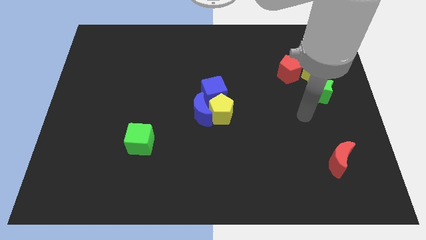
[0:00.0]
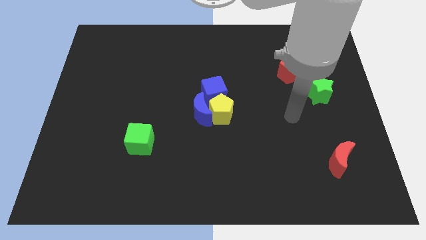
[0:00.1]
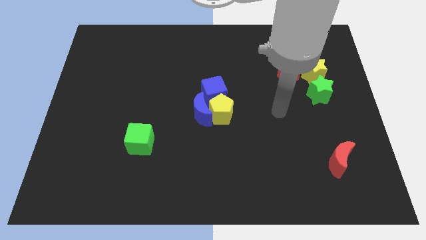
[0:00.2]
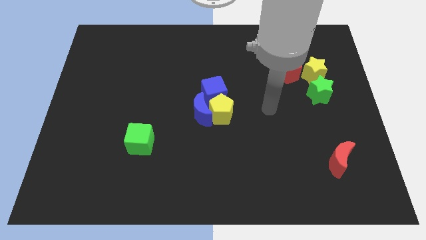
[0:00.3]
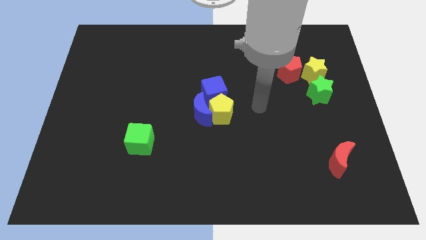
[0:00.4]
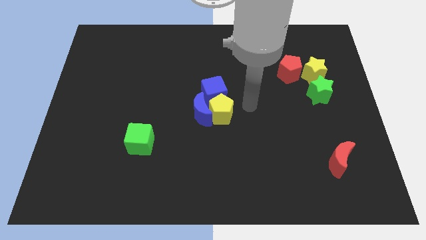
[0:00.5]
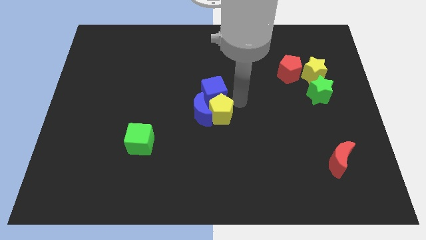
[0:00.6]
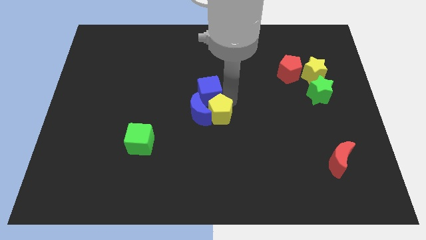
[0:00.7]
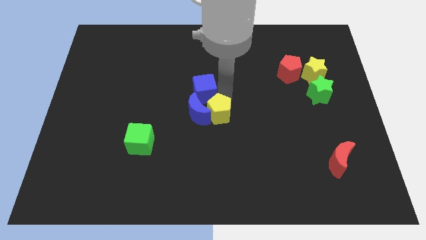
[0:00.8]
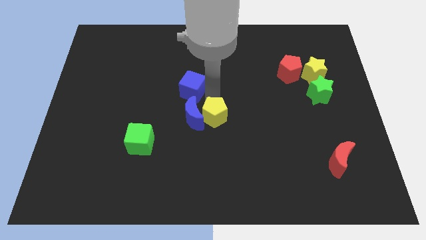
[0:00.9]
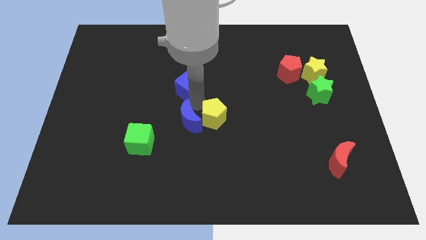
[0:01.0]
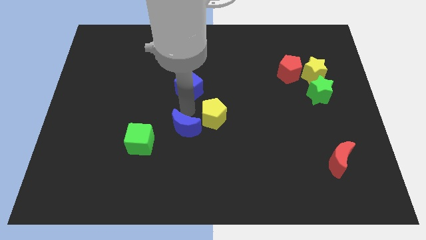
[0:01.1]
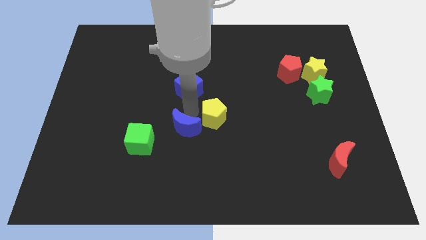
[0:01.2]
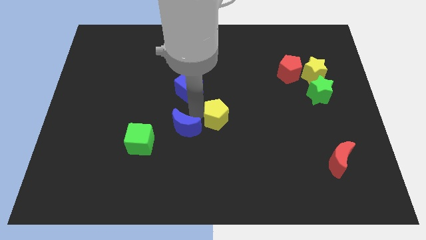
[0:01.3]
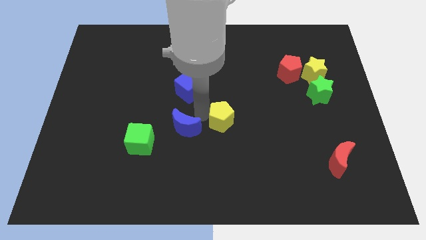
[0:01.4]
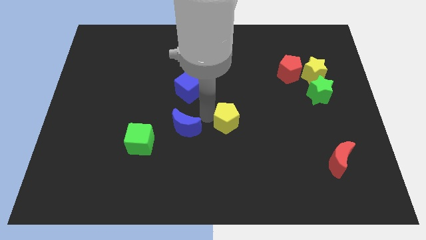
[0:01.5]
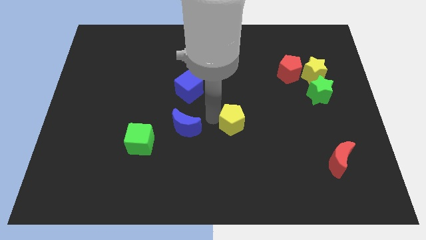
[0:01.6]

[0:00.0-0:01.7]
move the yellow pentagon away from the blue moon and blue cube

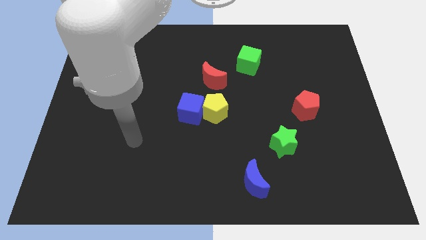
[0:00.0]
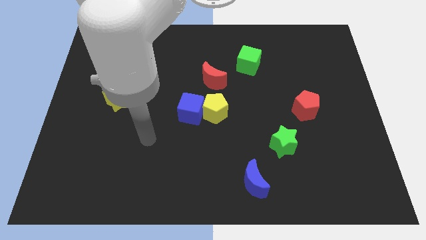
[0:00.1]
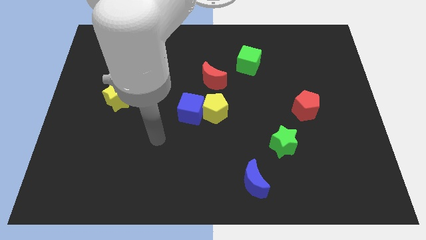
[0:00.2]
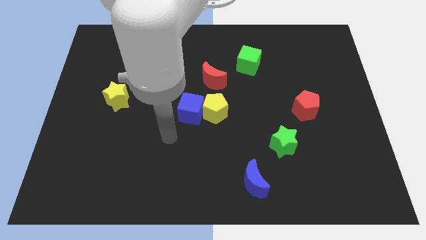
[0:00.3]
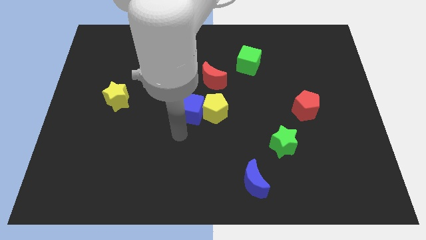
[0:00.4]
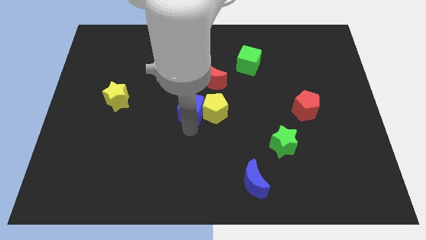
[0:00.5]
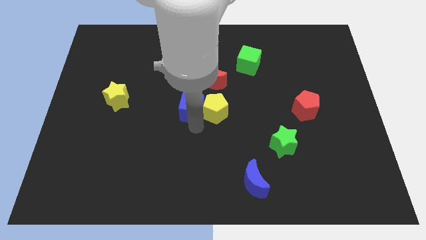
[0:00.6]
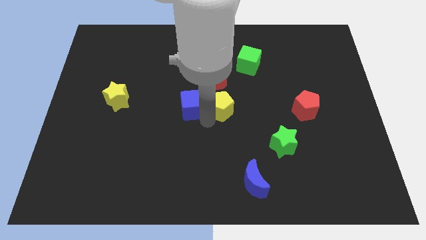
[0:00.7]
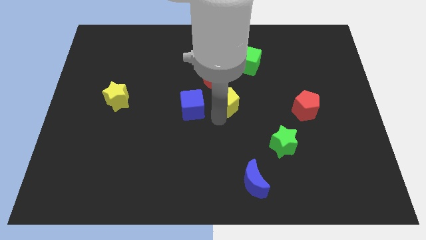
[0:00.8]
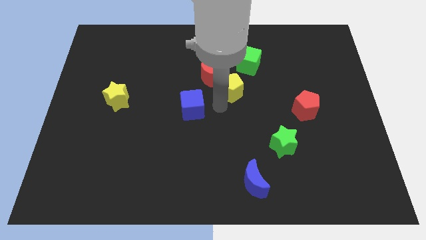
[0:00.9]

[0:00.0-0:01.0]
pull the blue cube apart from the yellow pentagon

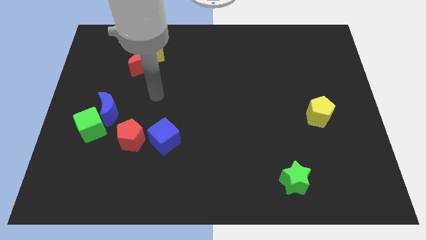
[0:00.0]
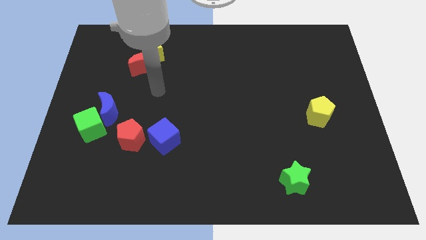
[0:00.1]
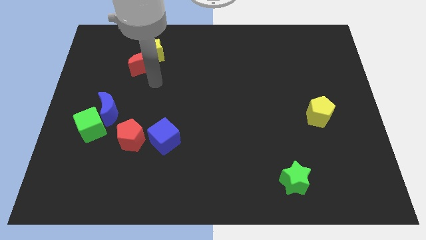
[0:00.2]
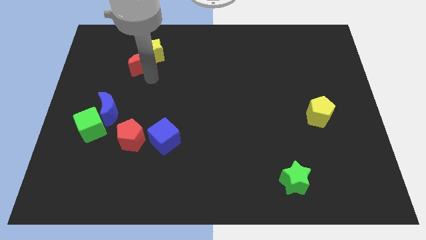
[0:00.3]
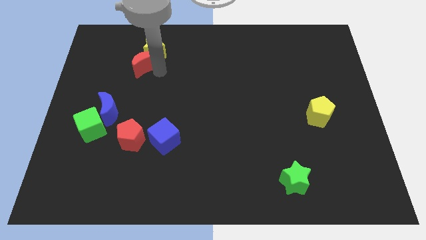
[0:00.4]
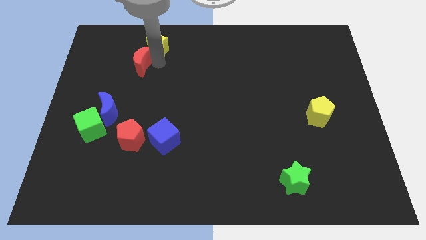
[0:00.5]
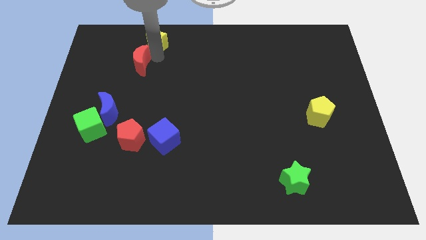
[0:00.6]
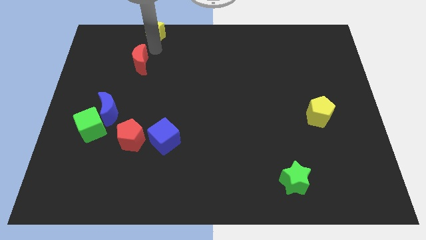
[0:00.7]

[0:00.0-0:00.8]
move the red moon away from the yellow star

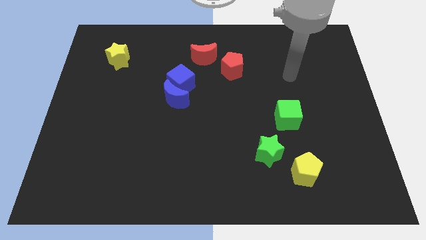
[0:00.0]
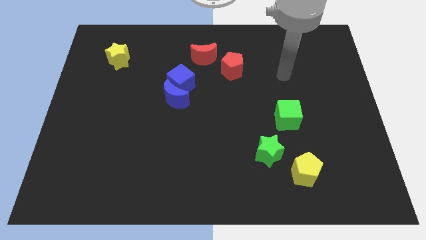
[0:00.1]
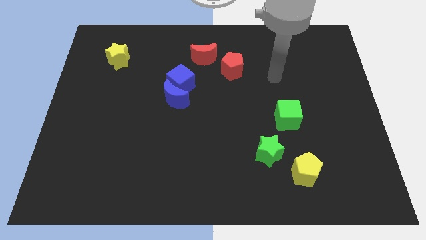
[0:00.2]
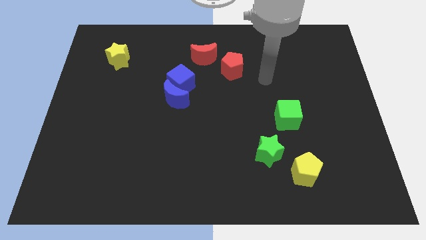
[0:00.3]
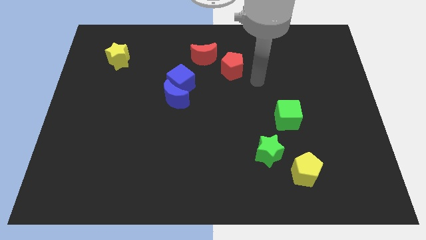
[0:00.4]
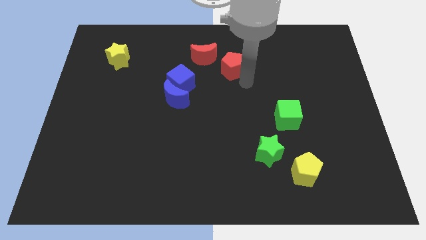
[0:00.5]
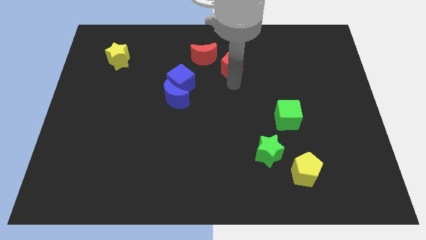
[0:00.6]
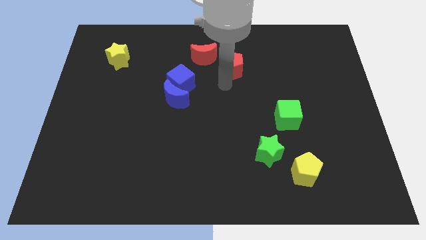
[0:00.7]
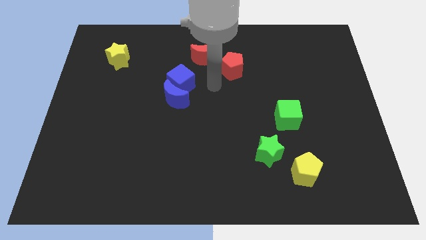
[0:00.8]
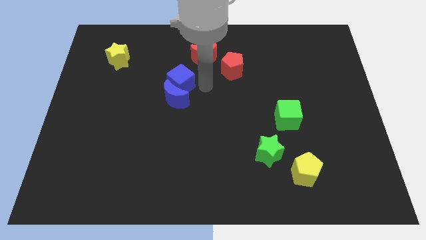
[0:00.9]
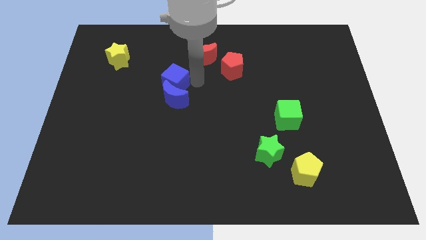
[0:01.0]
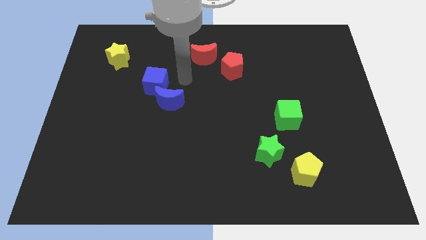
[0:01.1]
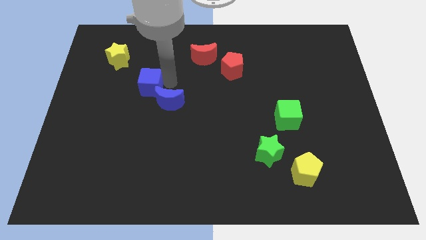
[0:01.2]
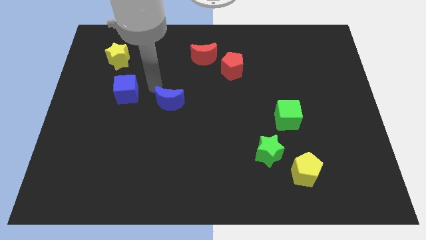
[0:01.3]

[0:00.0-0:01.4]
separate the blue moon from the blue cube

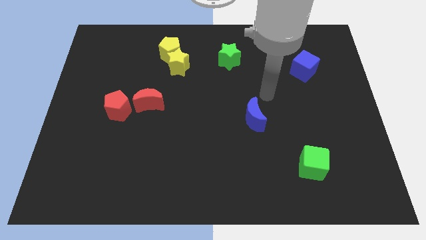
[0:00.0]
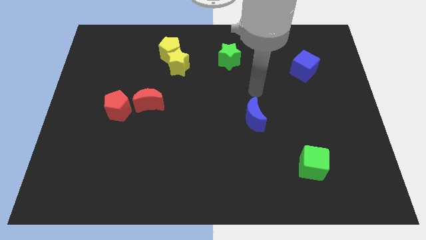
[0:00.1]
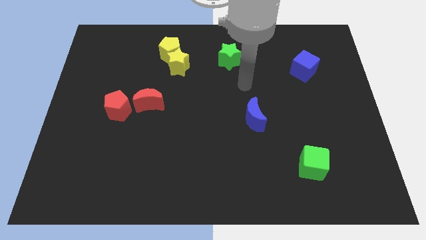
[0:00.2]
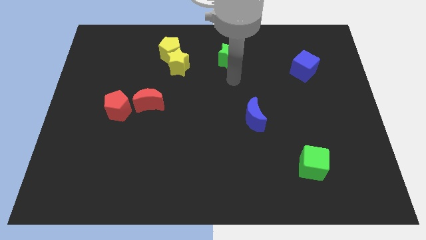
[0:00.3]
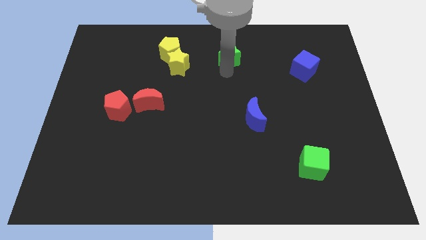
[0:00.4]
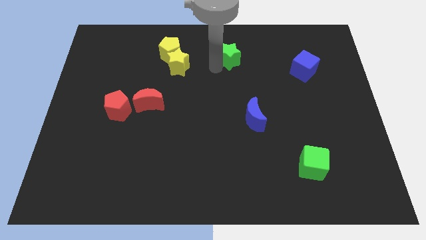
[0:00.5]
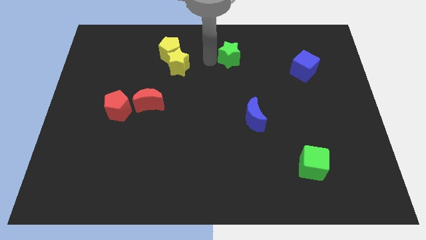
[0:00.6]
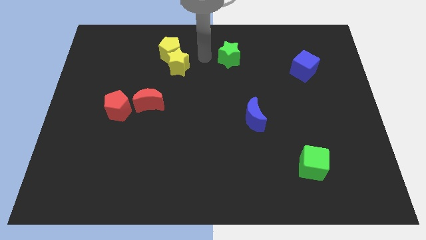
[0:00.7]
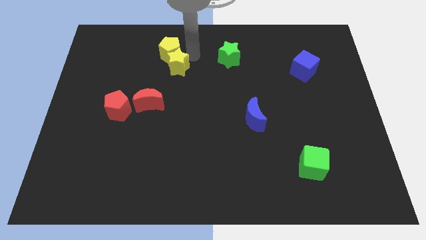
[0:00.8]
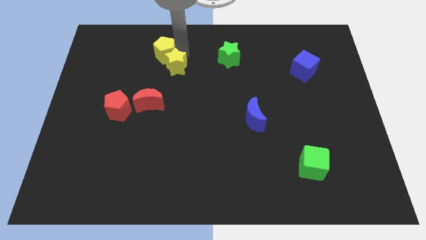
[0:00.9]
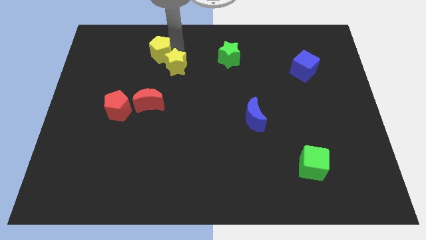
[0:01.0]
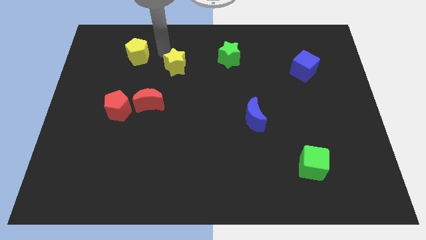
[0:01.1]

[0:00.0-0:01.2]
move the yellow star away from the yellow pentagon

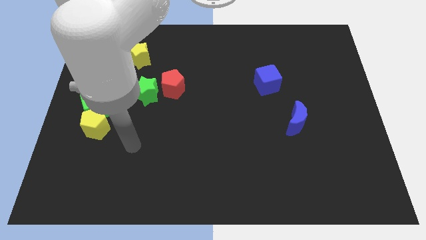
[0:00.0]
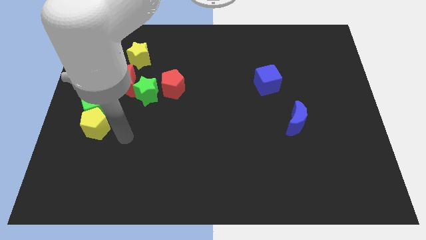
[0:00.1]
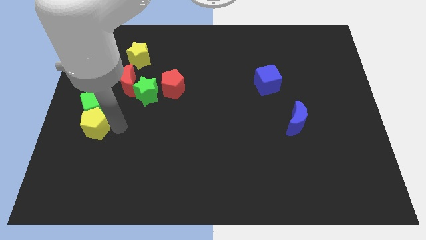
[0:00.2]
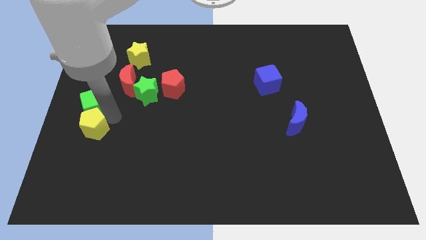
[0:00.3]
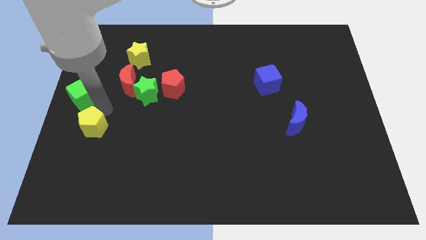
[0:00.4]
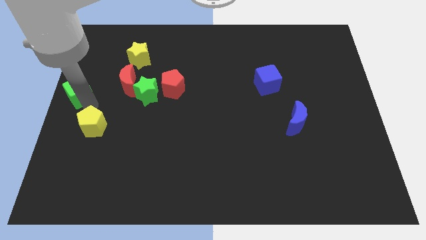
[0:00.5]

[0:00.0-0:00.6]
move the yellow pentagon away from the green cube

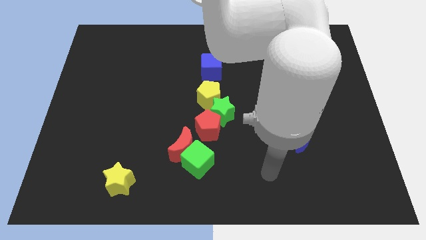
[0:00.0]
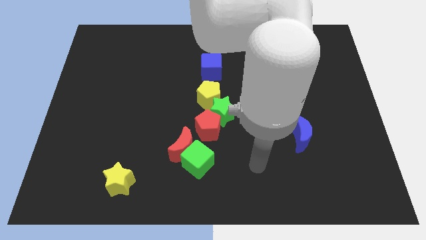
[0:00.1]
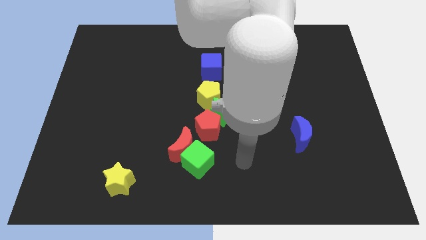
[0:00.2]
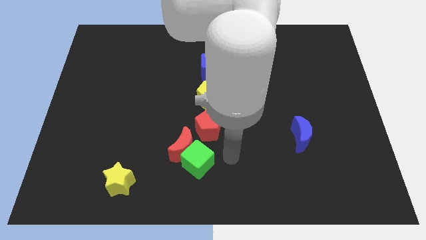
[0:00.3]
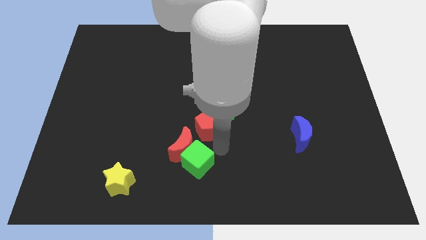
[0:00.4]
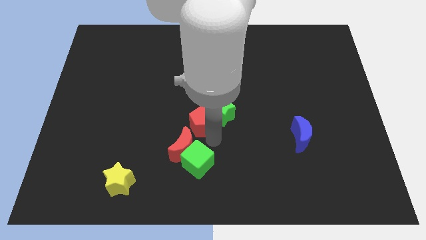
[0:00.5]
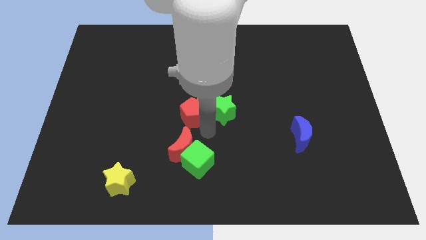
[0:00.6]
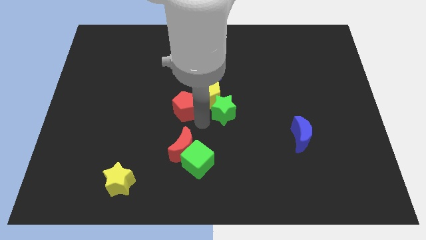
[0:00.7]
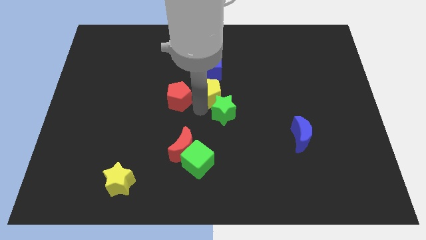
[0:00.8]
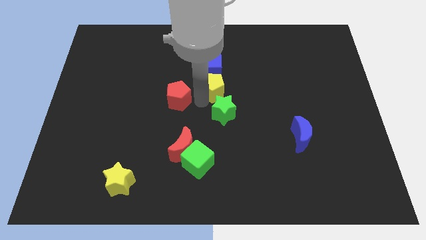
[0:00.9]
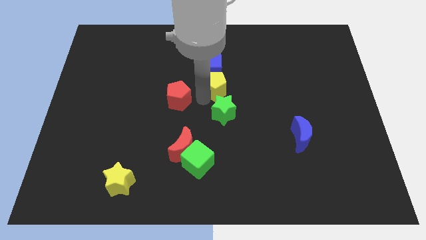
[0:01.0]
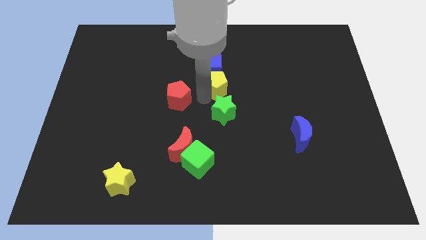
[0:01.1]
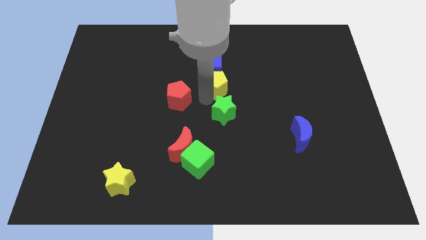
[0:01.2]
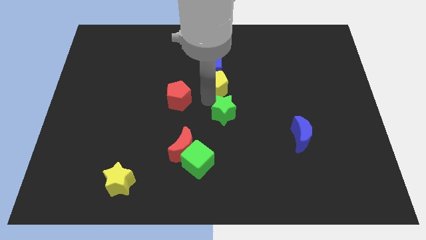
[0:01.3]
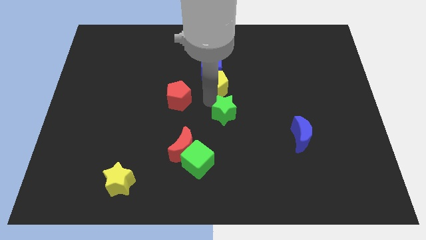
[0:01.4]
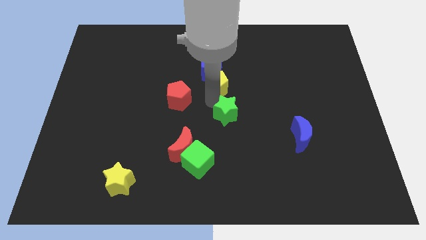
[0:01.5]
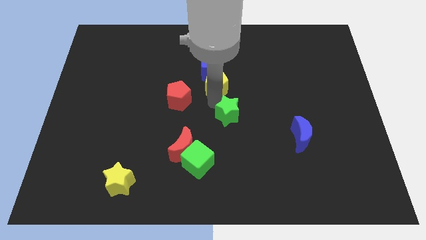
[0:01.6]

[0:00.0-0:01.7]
move the green star away from the red pentagon and yellow pentagon

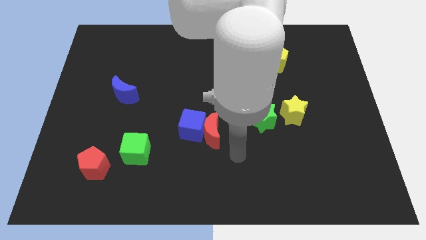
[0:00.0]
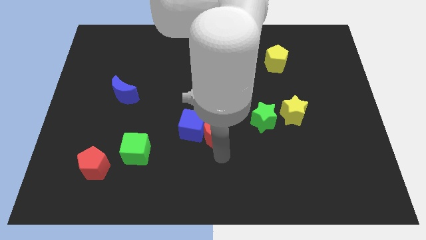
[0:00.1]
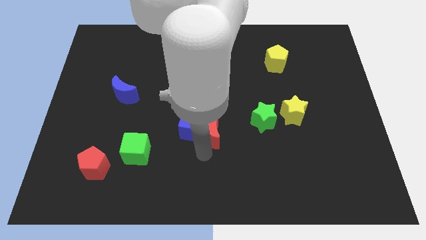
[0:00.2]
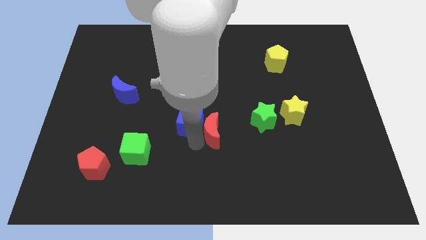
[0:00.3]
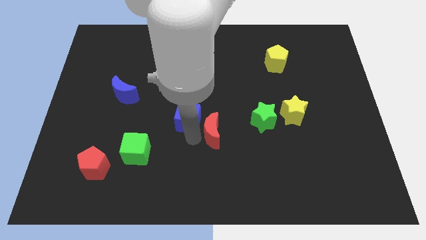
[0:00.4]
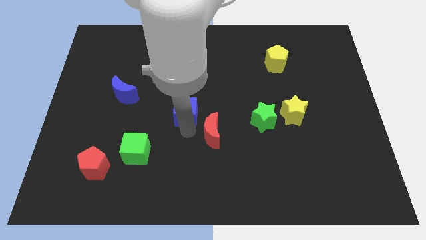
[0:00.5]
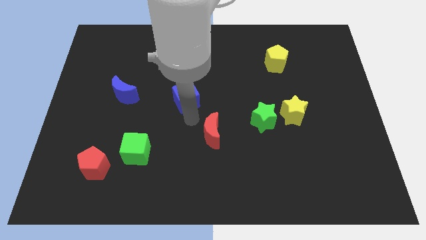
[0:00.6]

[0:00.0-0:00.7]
move the red moon away from the blue cube

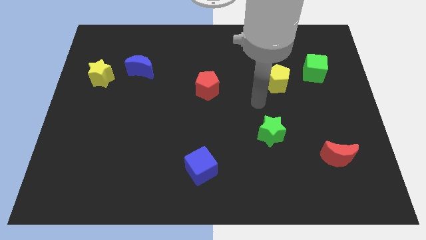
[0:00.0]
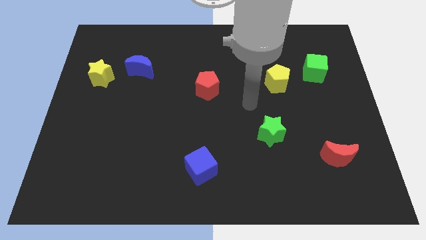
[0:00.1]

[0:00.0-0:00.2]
separate the blue moon from the yellow star
